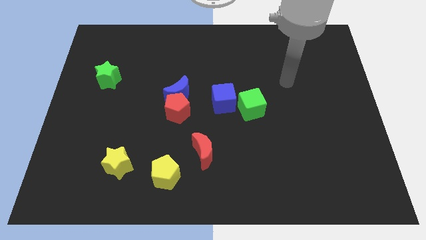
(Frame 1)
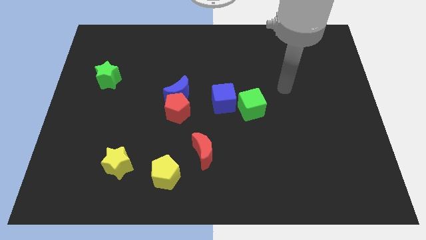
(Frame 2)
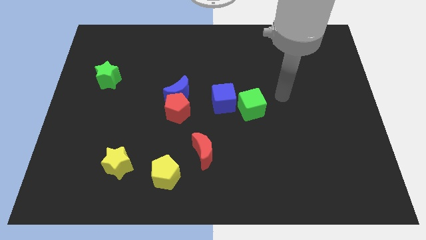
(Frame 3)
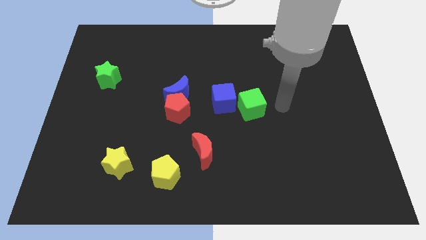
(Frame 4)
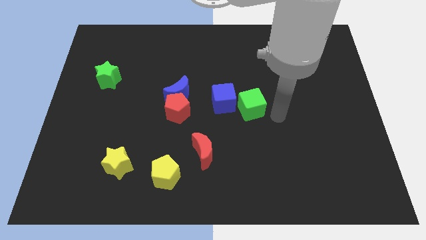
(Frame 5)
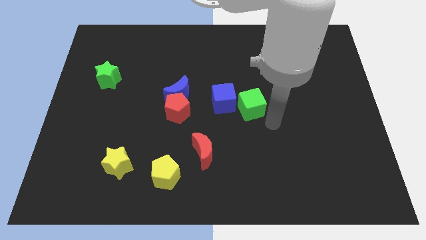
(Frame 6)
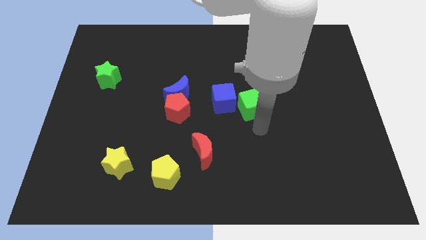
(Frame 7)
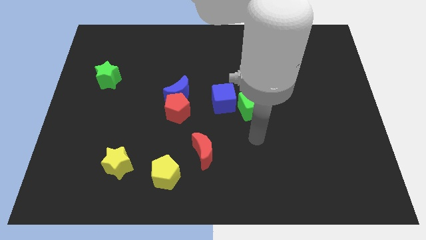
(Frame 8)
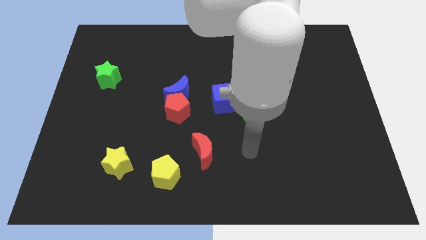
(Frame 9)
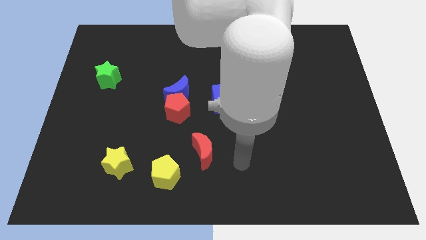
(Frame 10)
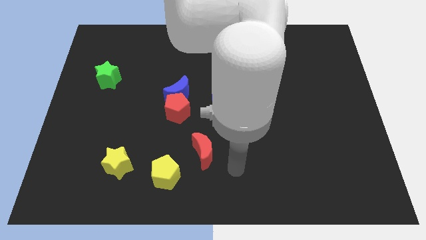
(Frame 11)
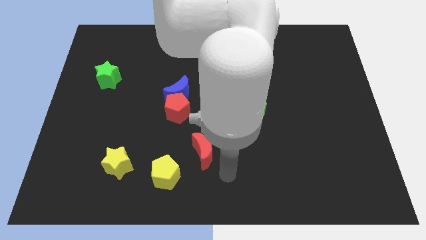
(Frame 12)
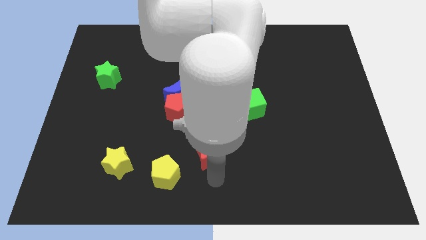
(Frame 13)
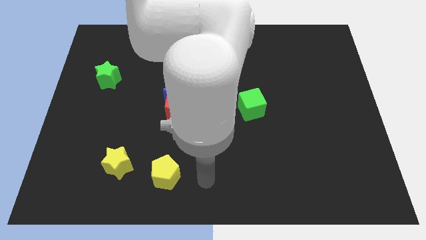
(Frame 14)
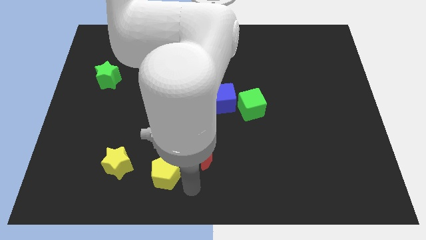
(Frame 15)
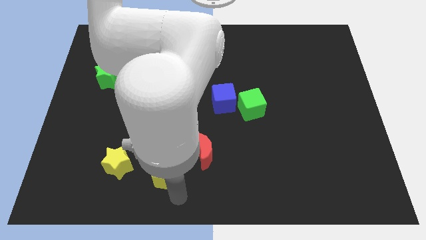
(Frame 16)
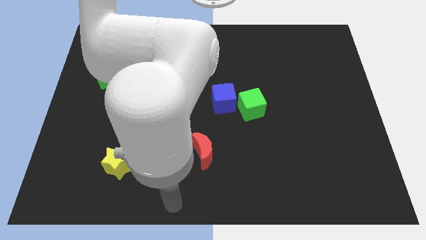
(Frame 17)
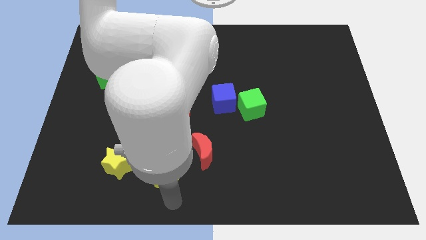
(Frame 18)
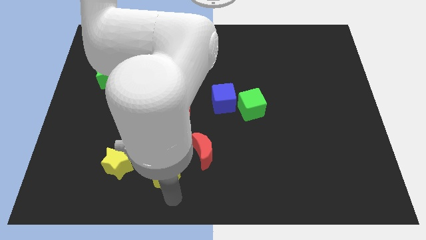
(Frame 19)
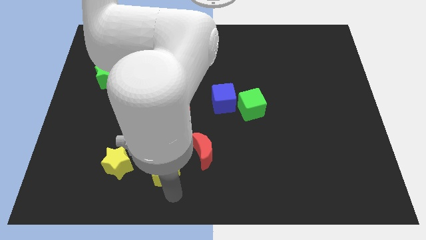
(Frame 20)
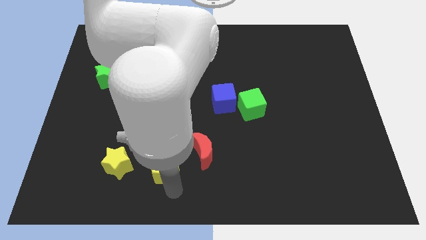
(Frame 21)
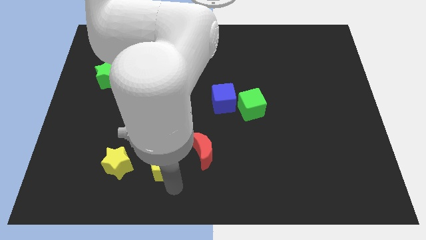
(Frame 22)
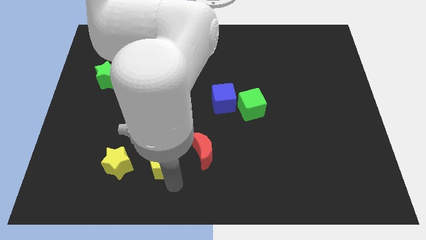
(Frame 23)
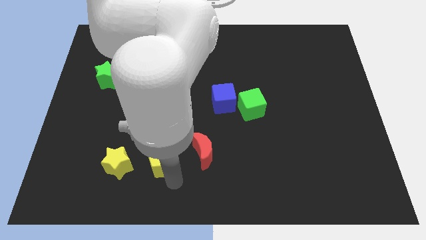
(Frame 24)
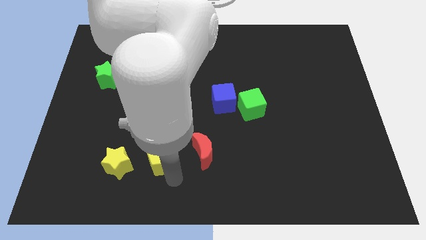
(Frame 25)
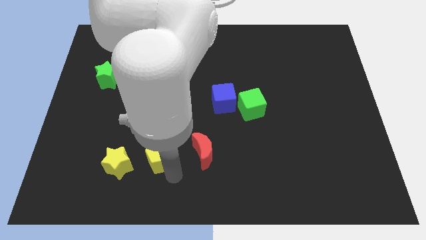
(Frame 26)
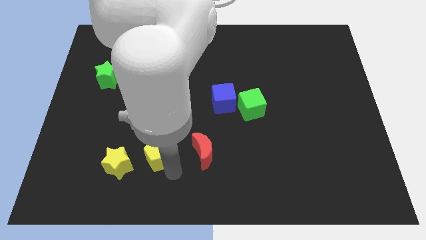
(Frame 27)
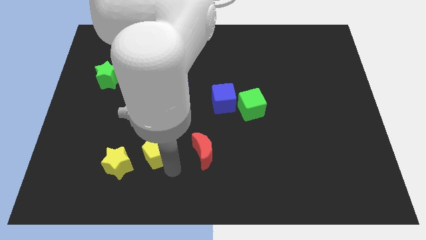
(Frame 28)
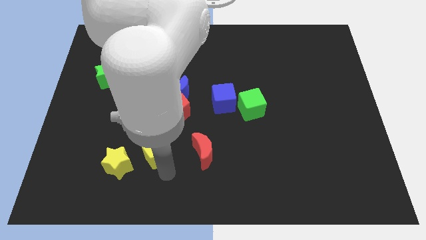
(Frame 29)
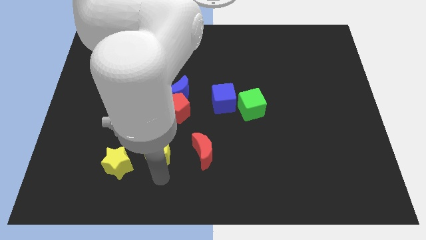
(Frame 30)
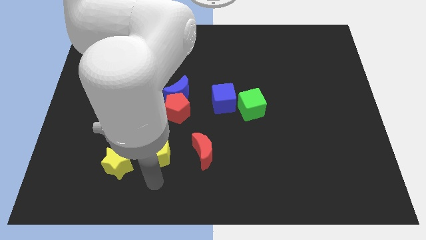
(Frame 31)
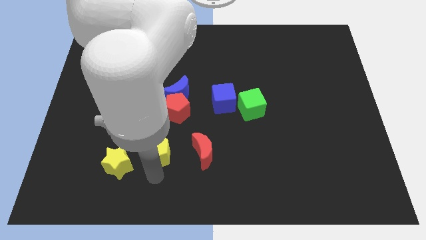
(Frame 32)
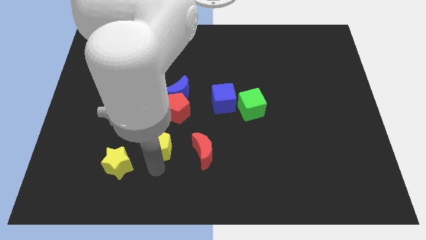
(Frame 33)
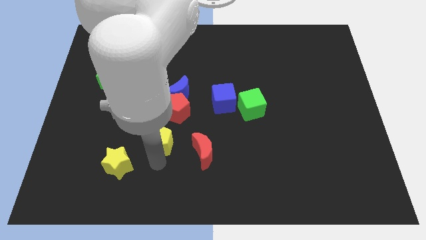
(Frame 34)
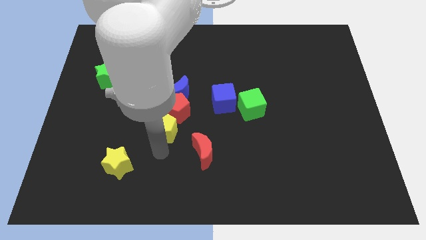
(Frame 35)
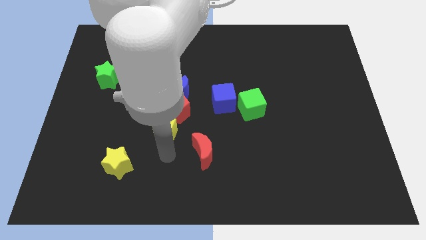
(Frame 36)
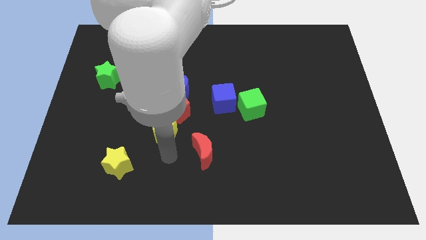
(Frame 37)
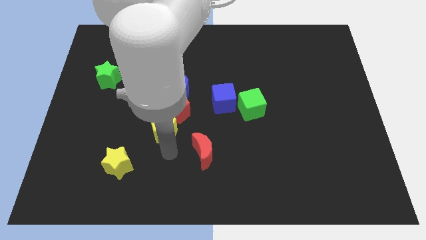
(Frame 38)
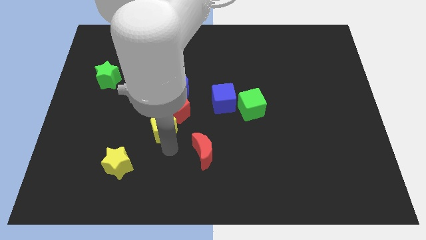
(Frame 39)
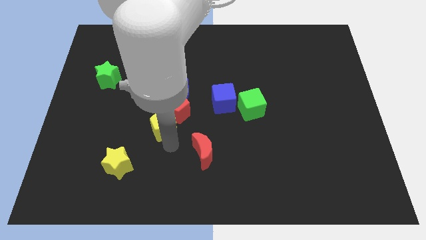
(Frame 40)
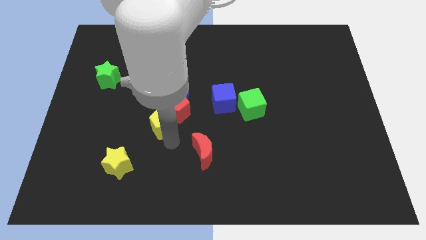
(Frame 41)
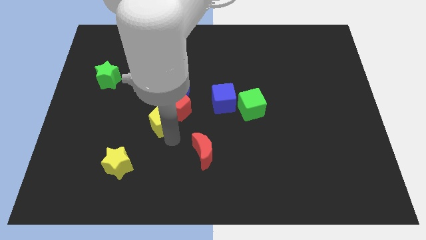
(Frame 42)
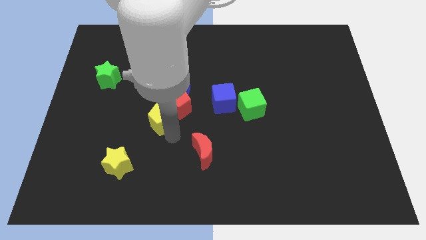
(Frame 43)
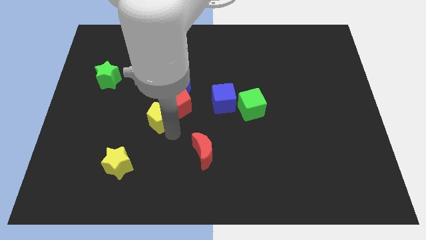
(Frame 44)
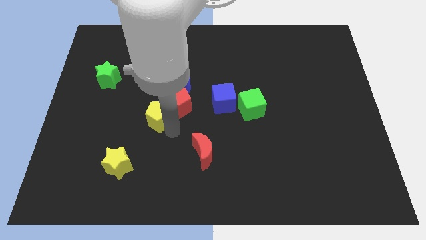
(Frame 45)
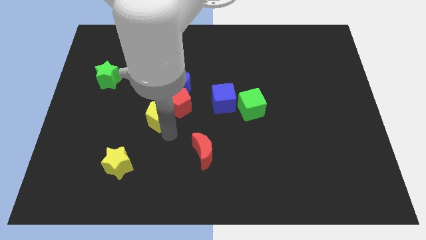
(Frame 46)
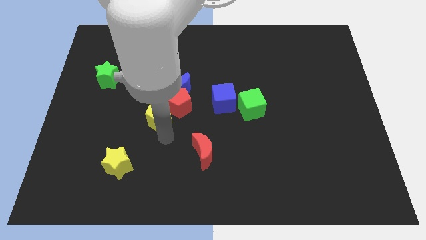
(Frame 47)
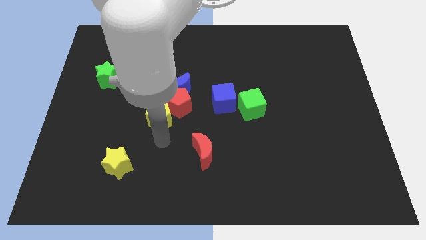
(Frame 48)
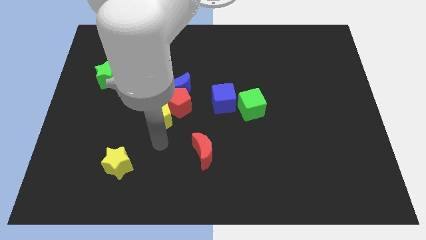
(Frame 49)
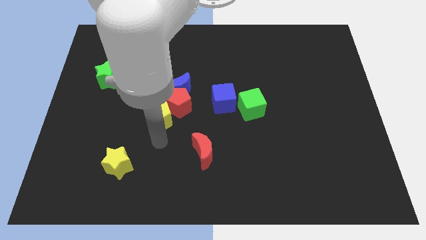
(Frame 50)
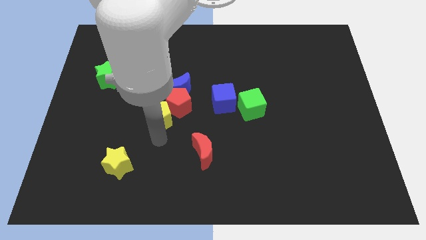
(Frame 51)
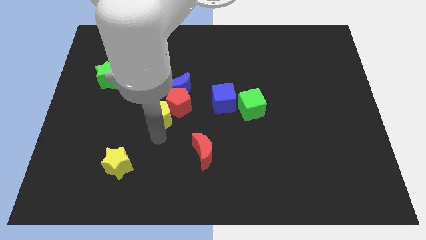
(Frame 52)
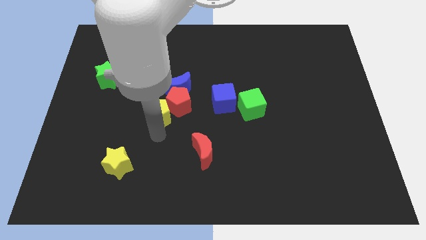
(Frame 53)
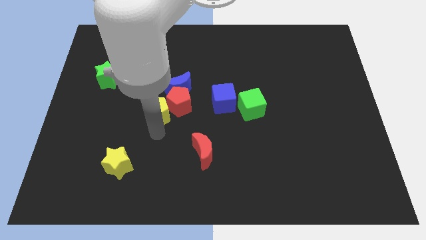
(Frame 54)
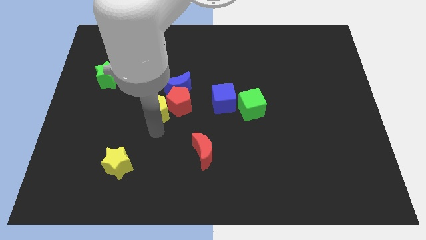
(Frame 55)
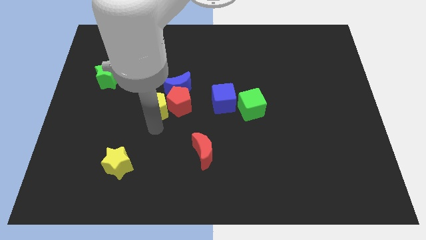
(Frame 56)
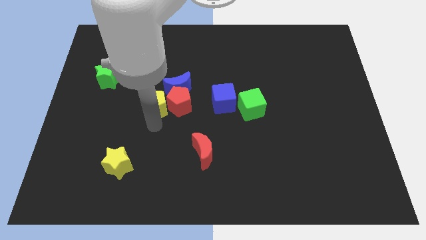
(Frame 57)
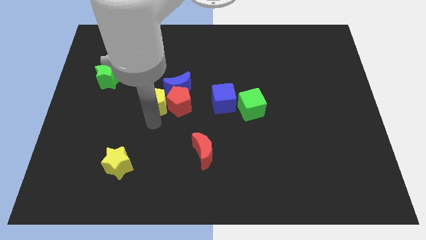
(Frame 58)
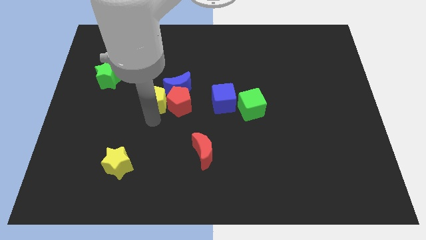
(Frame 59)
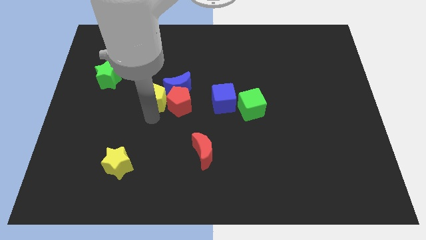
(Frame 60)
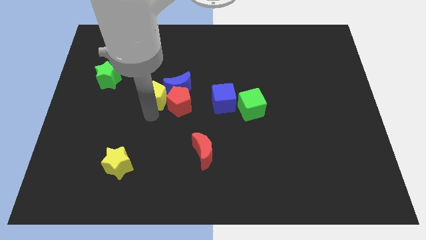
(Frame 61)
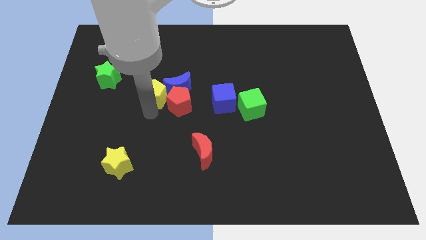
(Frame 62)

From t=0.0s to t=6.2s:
slide the yellow pentagon upwards

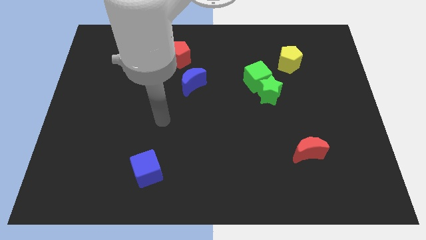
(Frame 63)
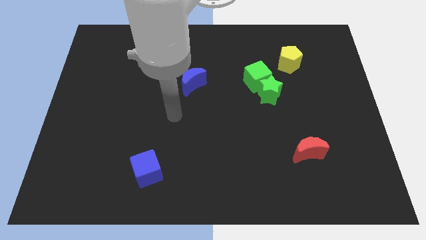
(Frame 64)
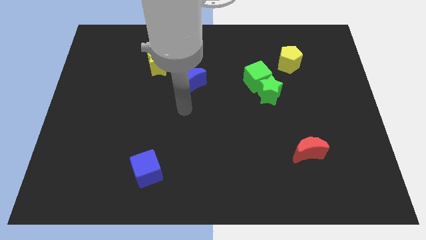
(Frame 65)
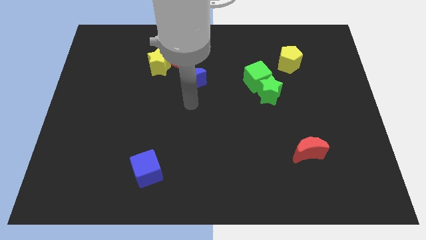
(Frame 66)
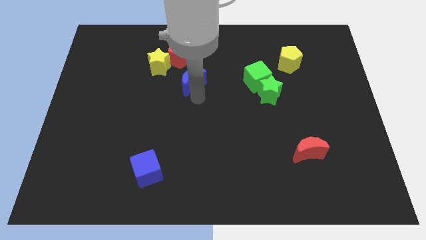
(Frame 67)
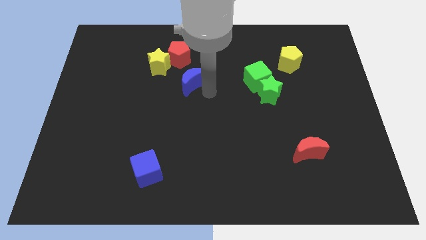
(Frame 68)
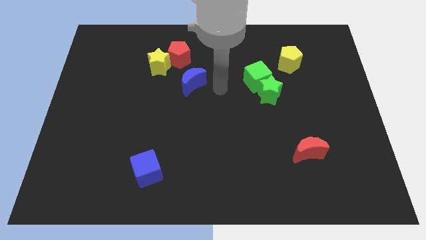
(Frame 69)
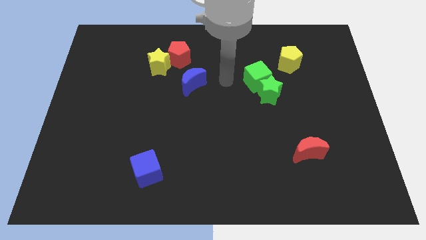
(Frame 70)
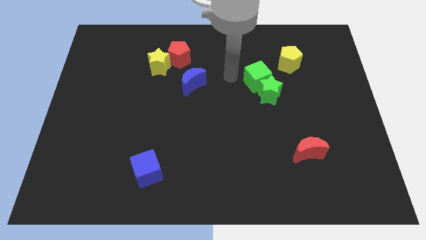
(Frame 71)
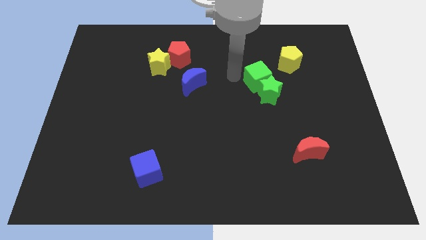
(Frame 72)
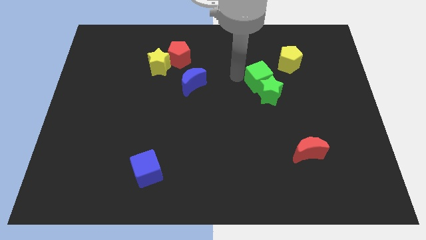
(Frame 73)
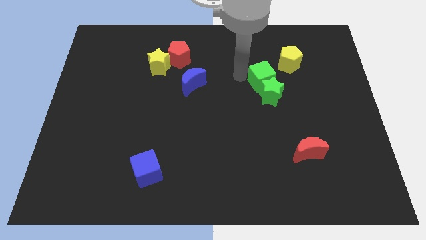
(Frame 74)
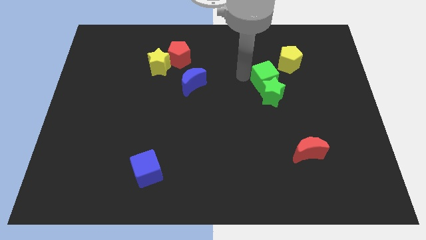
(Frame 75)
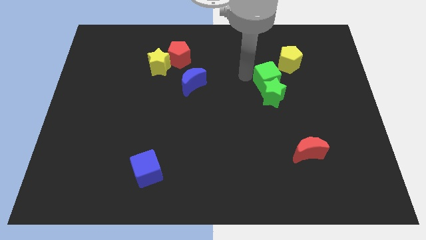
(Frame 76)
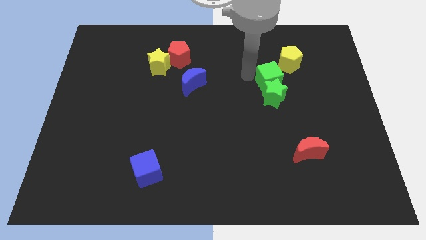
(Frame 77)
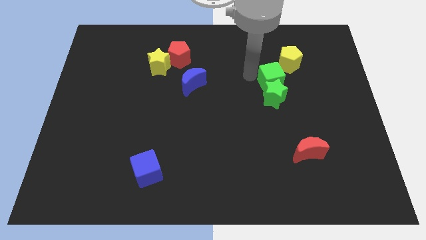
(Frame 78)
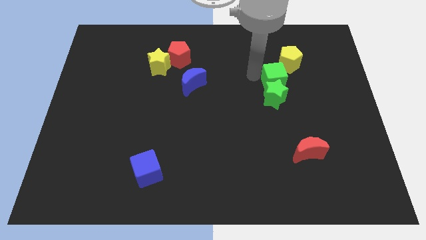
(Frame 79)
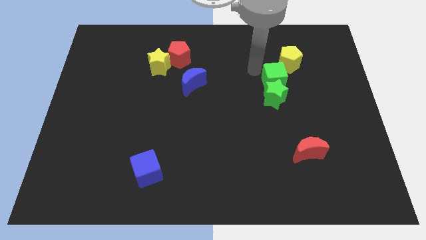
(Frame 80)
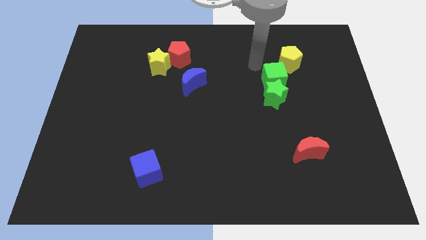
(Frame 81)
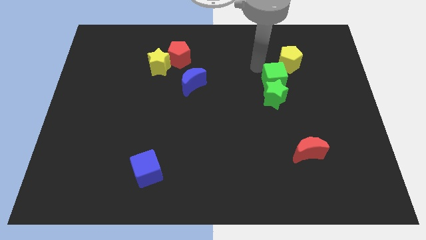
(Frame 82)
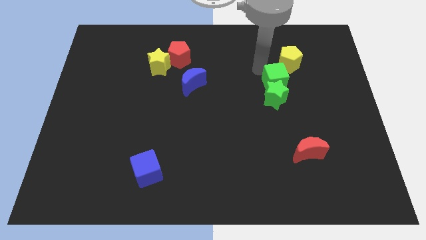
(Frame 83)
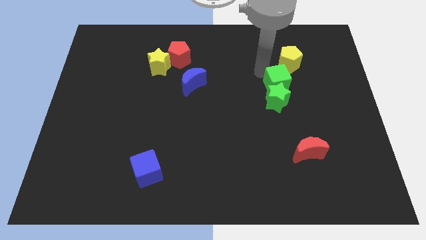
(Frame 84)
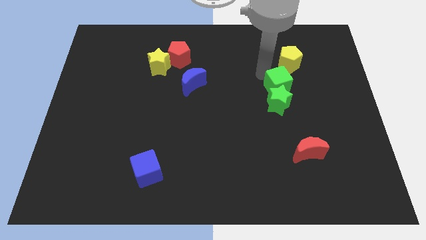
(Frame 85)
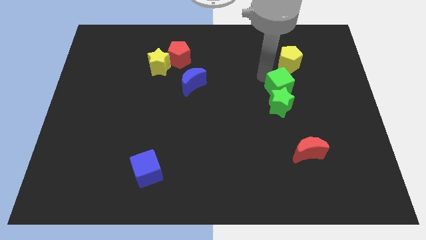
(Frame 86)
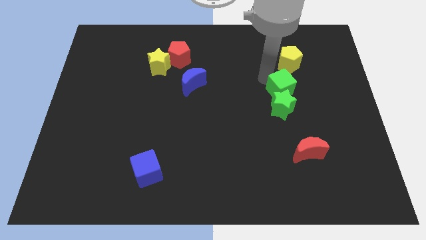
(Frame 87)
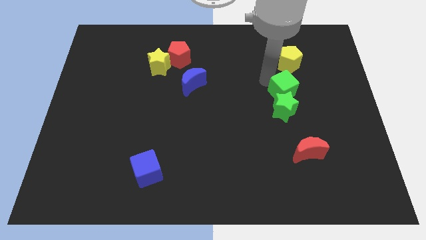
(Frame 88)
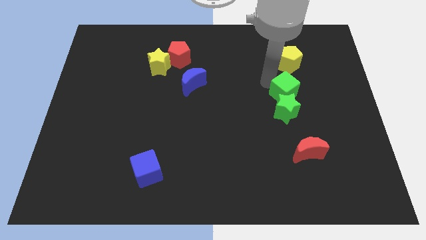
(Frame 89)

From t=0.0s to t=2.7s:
slightly slide the green cube down and to the right
